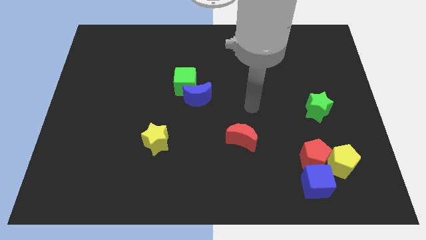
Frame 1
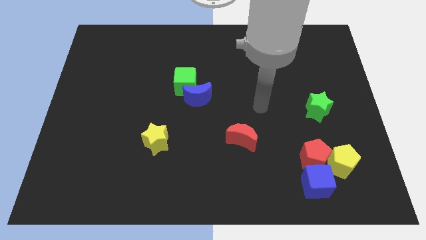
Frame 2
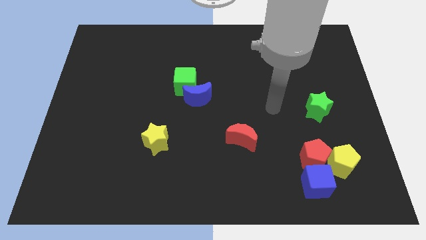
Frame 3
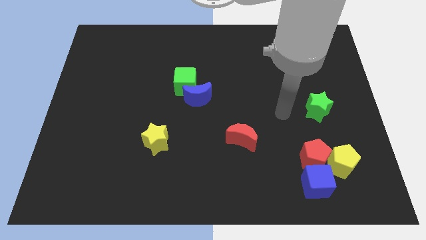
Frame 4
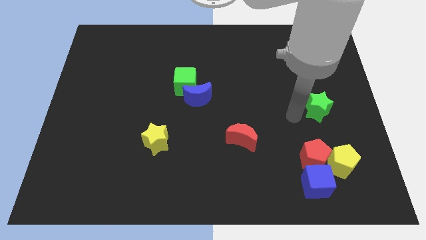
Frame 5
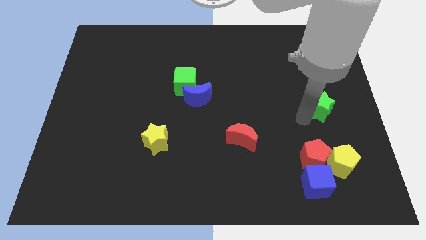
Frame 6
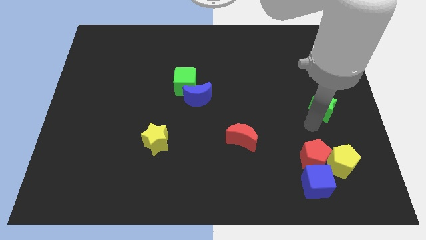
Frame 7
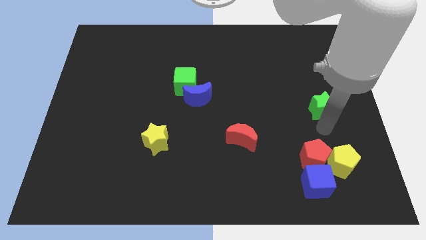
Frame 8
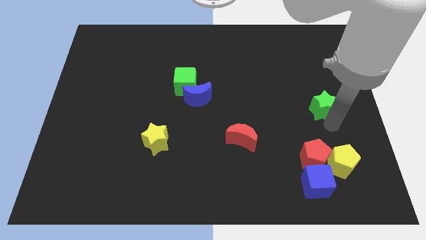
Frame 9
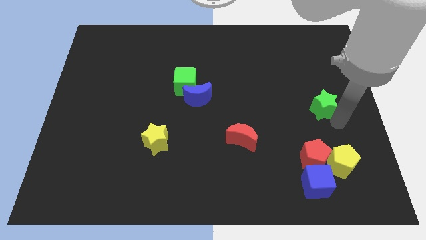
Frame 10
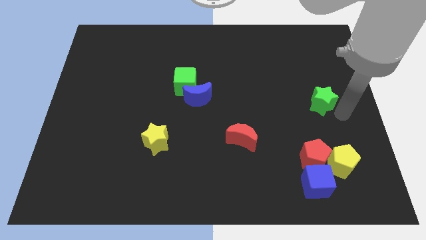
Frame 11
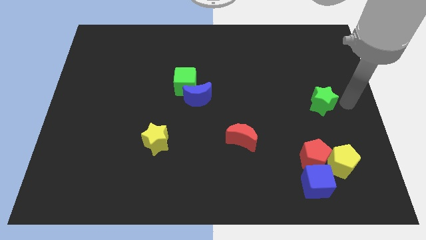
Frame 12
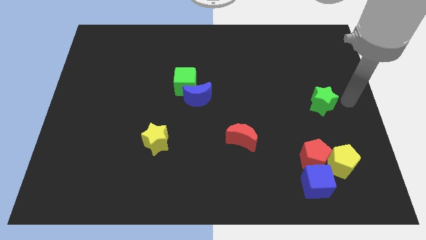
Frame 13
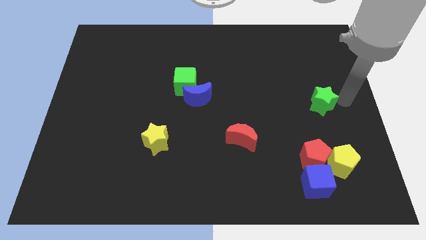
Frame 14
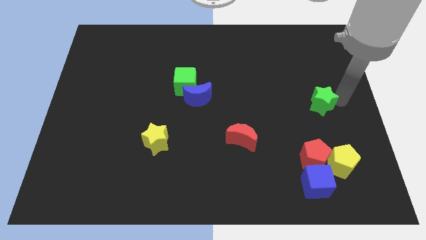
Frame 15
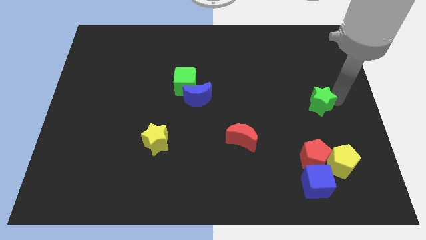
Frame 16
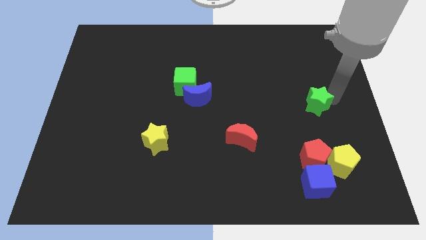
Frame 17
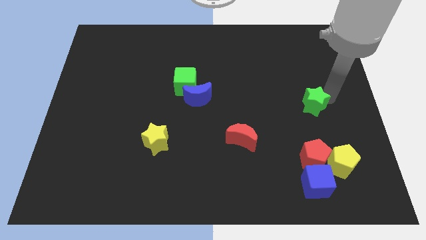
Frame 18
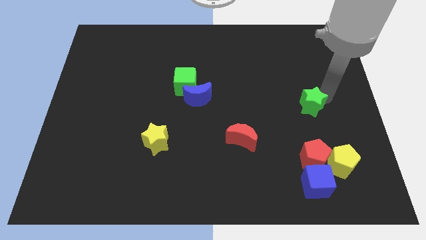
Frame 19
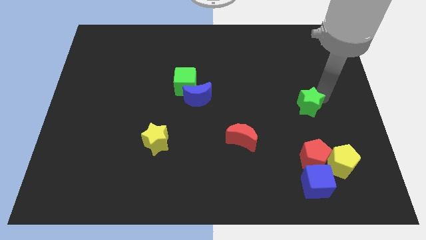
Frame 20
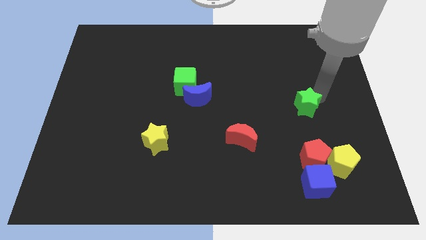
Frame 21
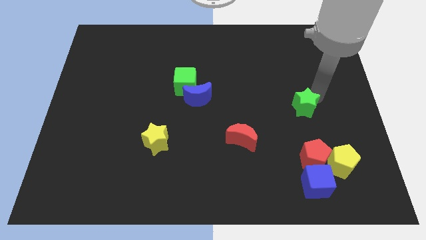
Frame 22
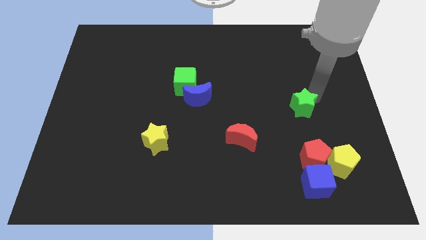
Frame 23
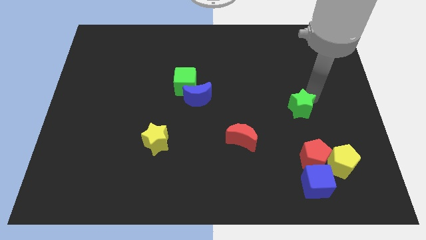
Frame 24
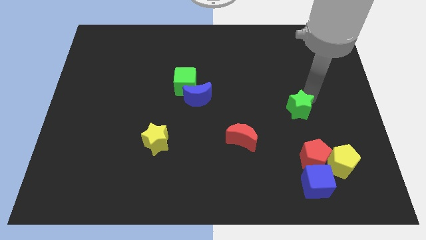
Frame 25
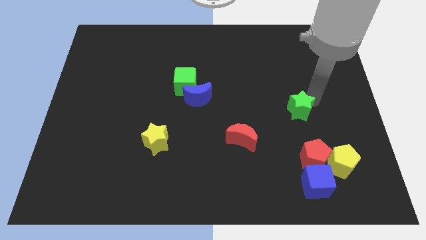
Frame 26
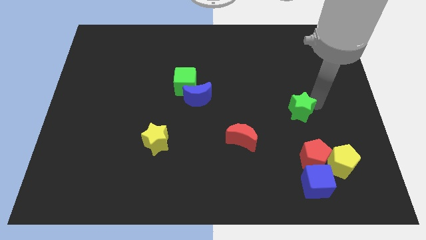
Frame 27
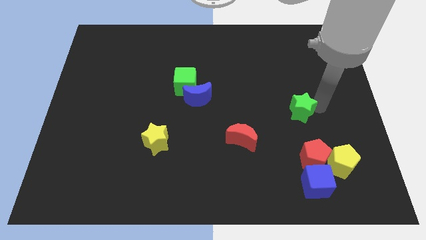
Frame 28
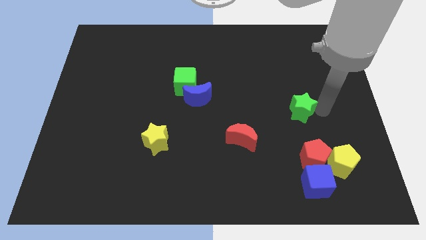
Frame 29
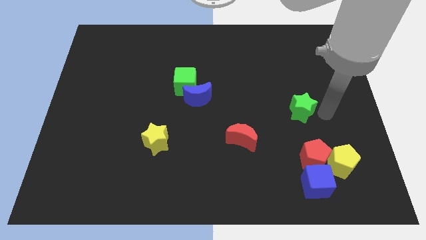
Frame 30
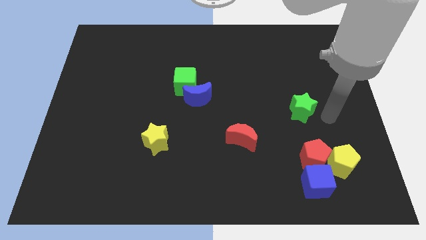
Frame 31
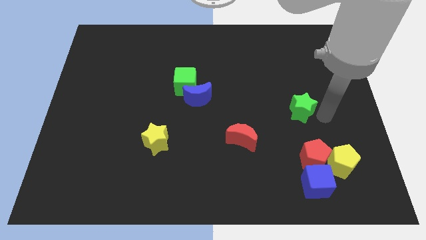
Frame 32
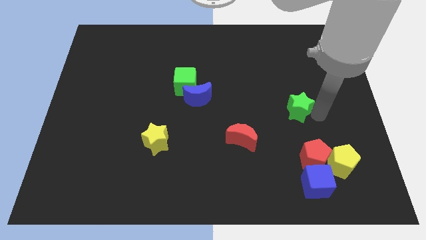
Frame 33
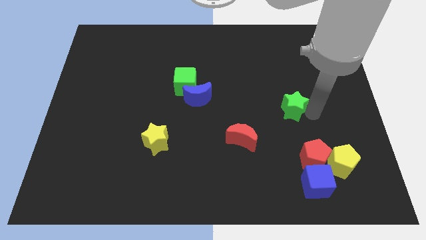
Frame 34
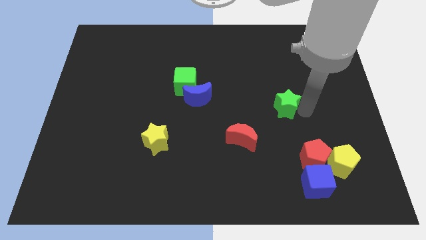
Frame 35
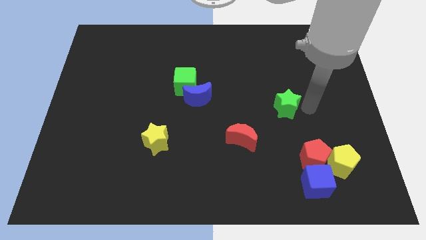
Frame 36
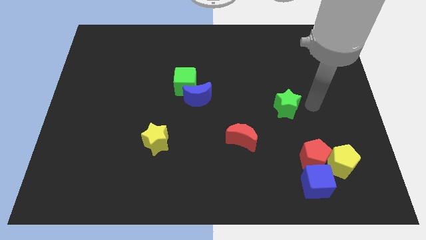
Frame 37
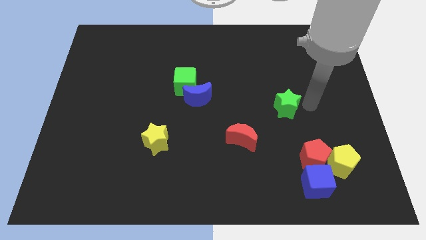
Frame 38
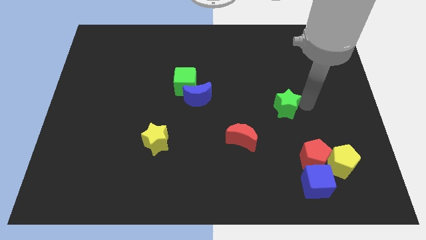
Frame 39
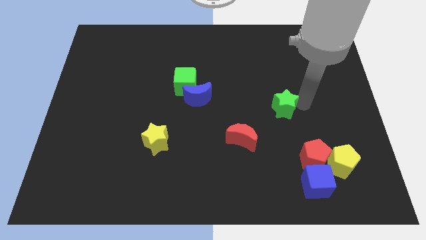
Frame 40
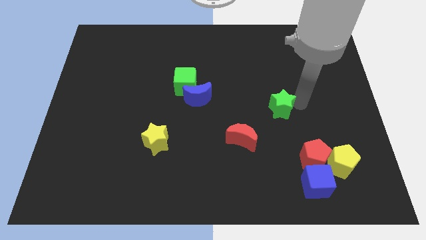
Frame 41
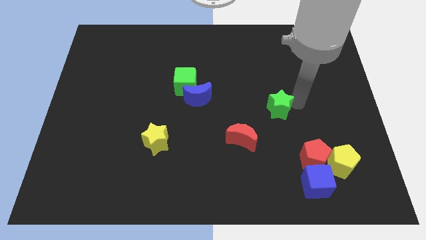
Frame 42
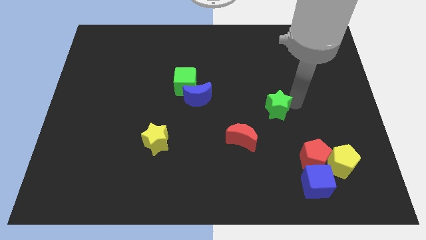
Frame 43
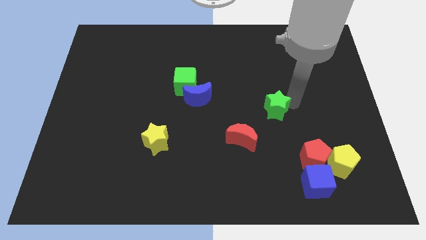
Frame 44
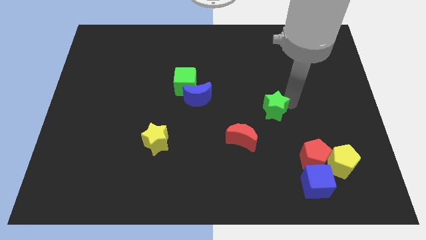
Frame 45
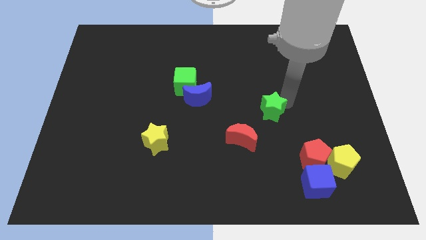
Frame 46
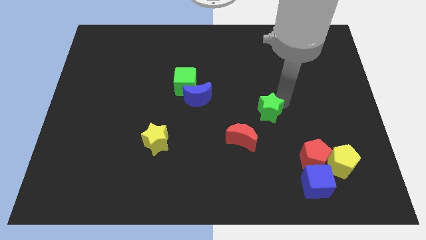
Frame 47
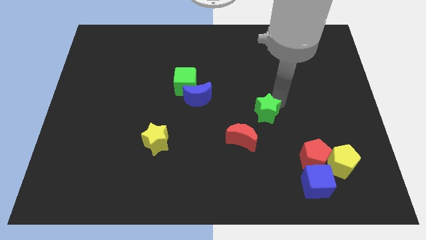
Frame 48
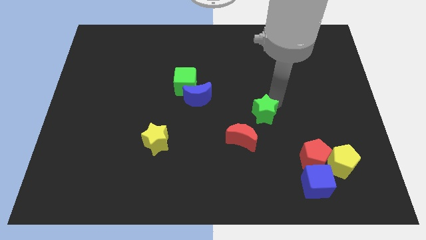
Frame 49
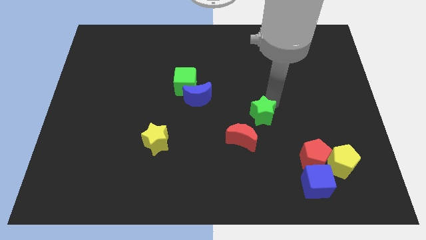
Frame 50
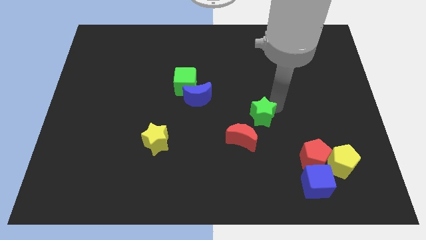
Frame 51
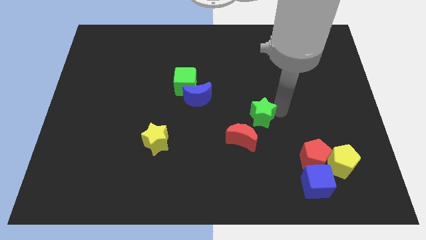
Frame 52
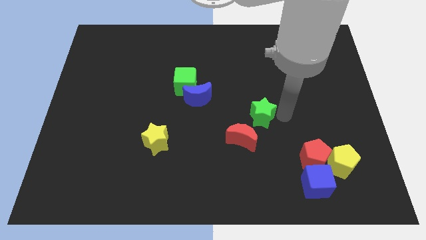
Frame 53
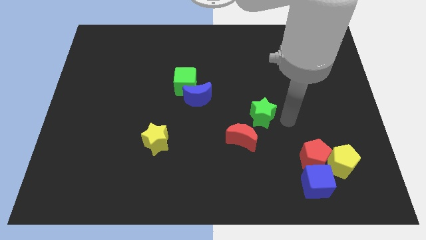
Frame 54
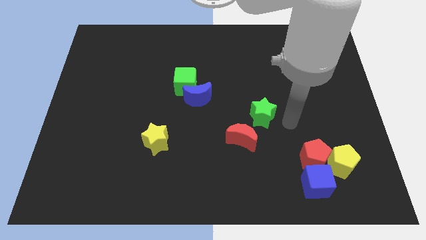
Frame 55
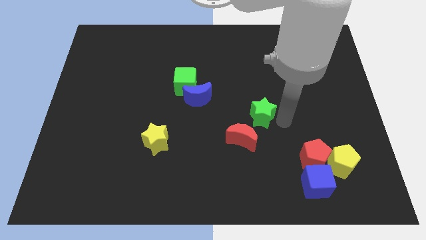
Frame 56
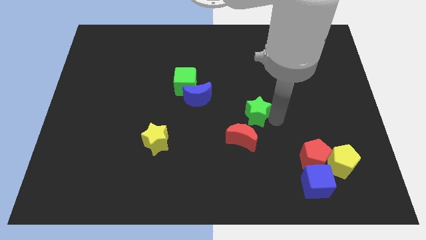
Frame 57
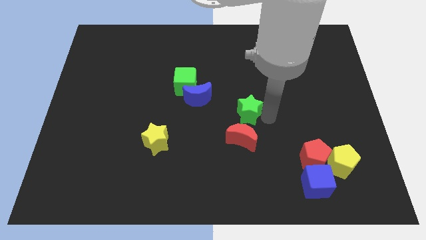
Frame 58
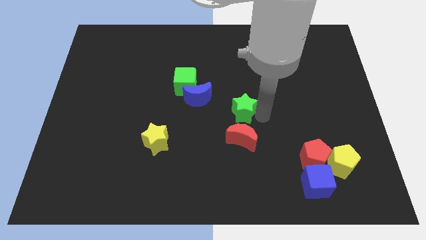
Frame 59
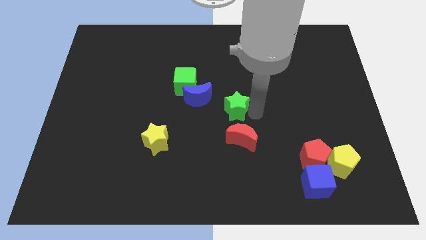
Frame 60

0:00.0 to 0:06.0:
put the green star diagonally down and to the right of the blue moon

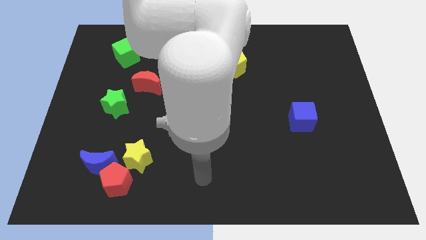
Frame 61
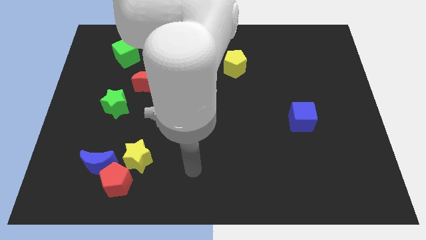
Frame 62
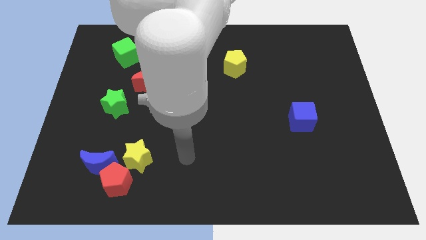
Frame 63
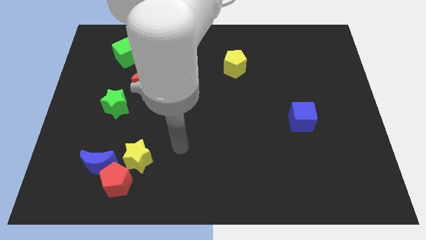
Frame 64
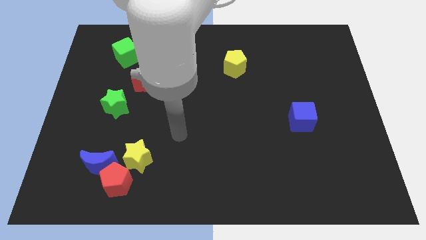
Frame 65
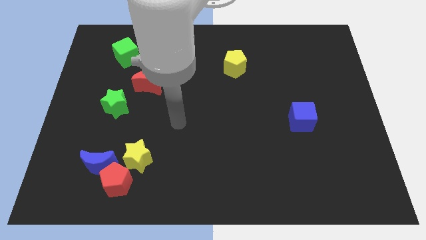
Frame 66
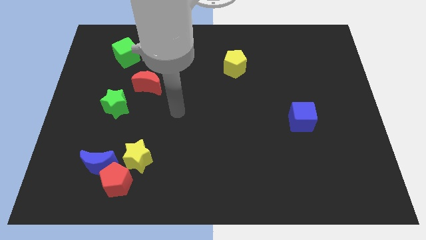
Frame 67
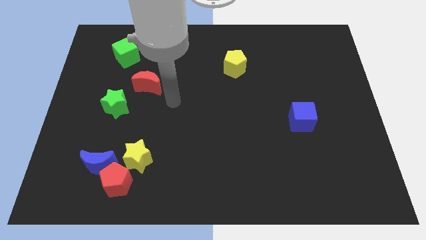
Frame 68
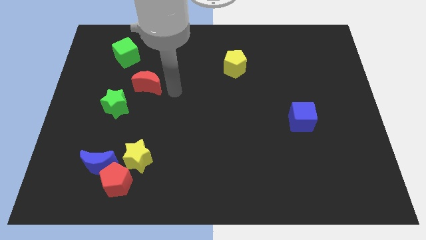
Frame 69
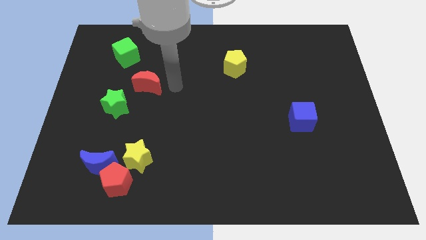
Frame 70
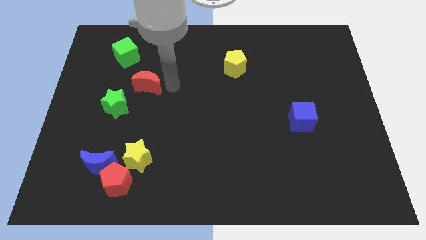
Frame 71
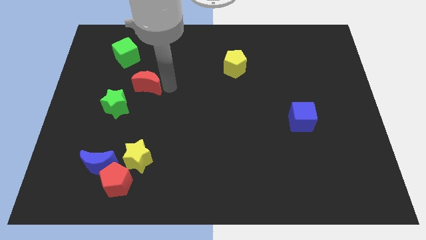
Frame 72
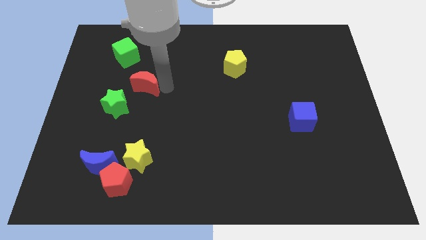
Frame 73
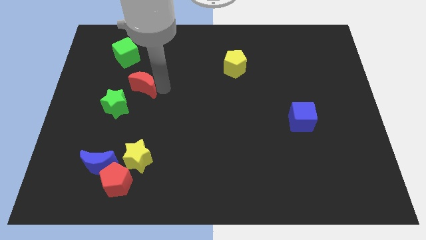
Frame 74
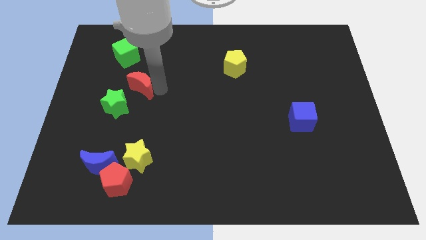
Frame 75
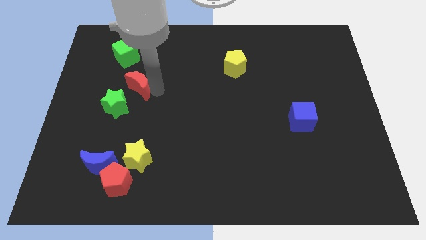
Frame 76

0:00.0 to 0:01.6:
push the red moon below the green cube
